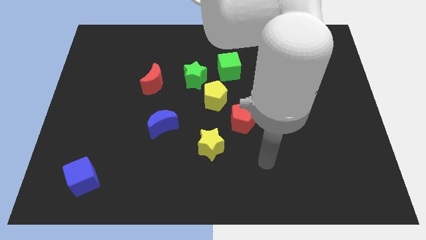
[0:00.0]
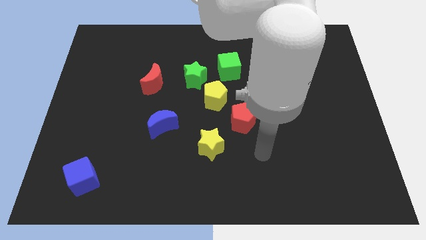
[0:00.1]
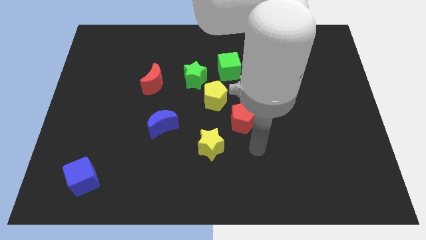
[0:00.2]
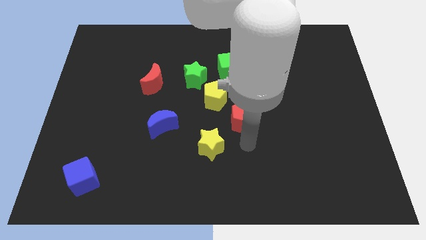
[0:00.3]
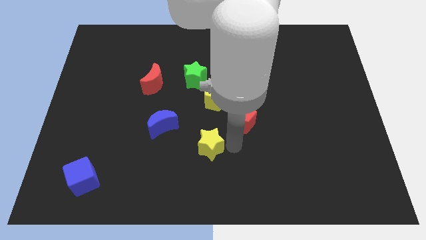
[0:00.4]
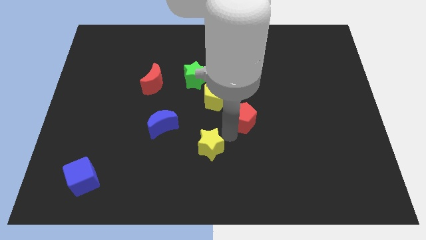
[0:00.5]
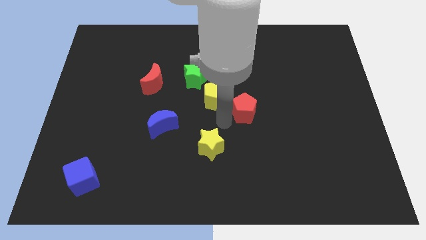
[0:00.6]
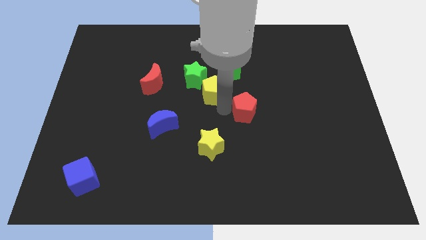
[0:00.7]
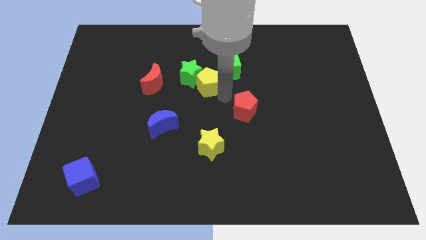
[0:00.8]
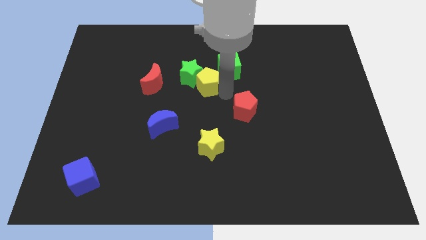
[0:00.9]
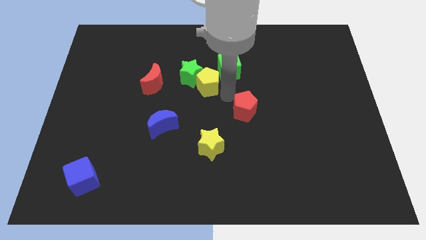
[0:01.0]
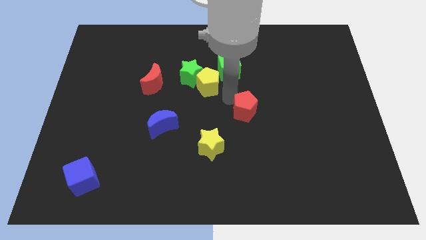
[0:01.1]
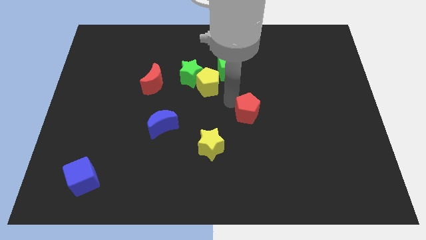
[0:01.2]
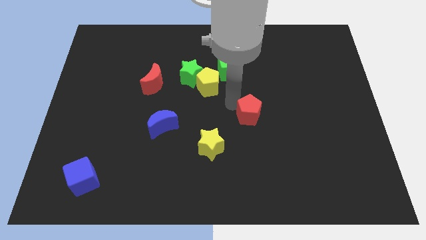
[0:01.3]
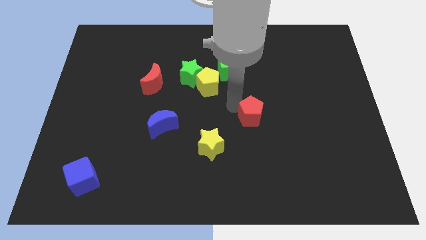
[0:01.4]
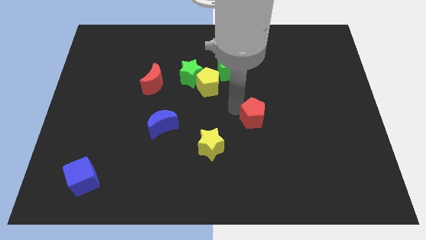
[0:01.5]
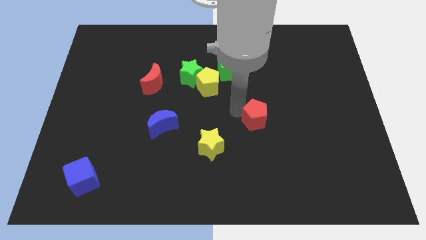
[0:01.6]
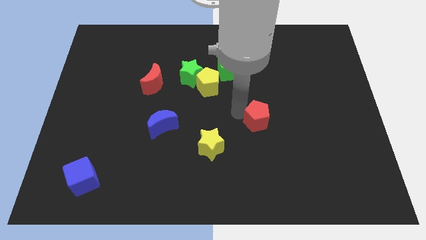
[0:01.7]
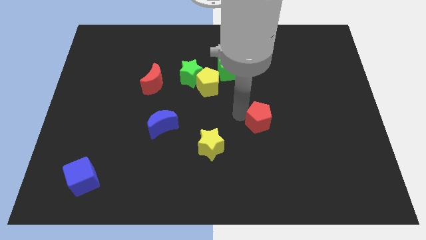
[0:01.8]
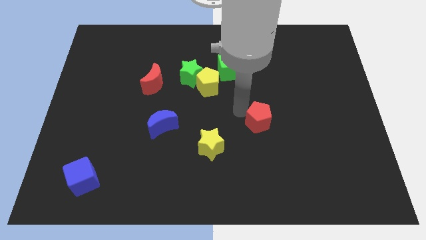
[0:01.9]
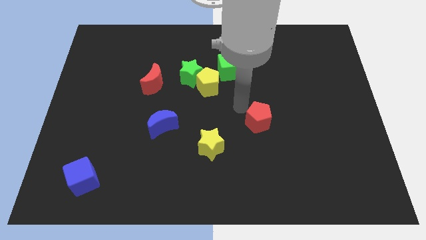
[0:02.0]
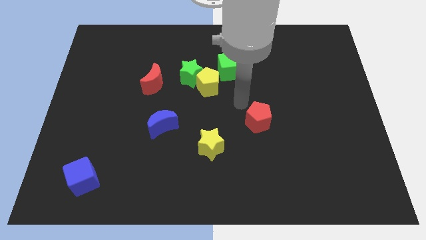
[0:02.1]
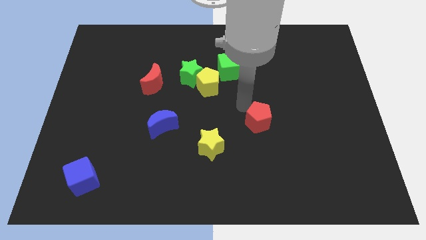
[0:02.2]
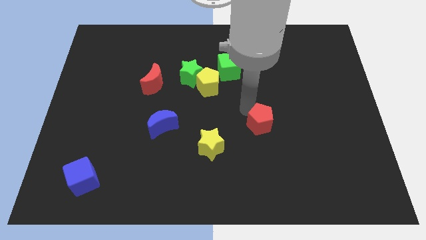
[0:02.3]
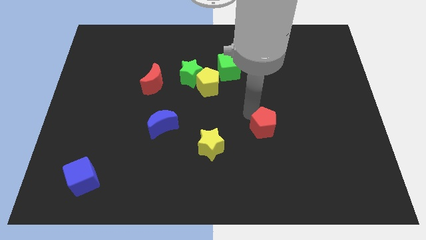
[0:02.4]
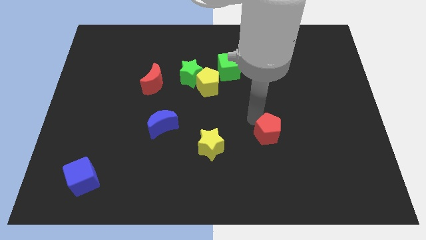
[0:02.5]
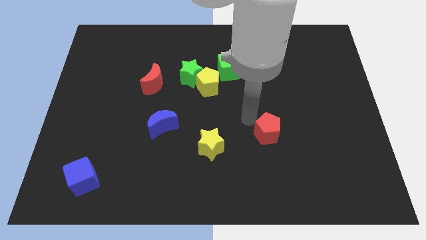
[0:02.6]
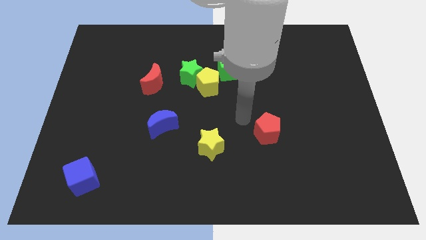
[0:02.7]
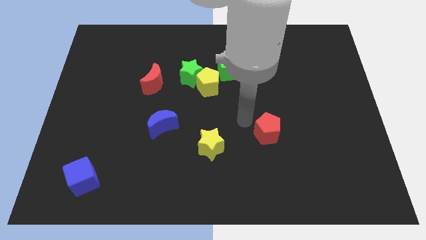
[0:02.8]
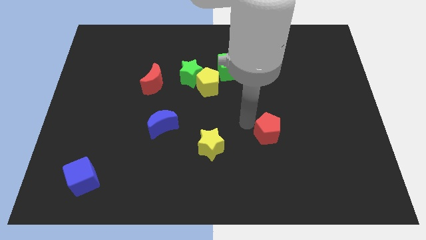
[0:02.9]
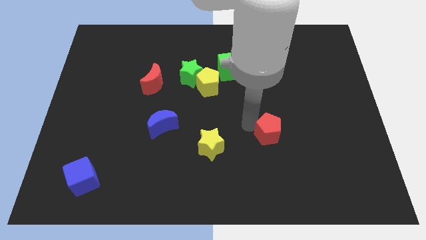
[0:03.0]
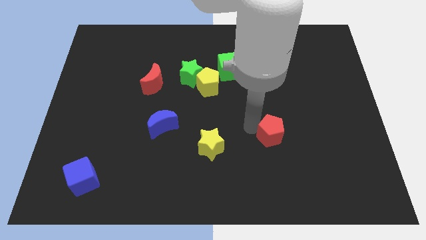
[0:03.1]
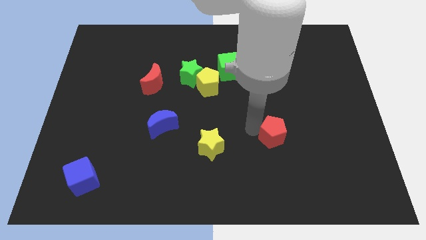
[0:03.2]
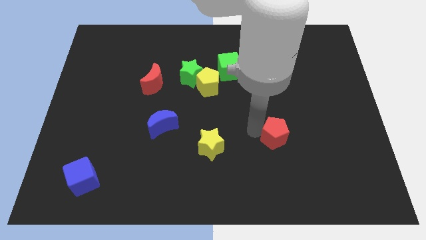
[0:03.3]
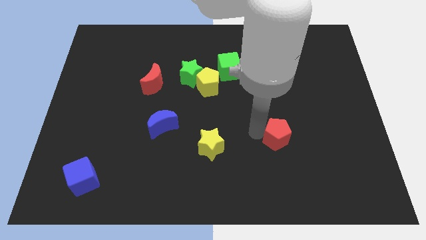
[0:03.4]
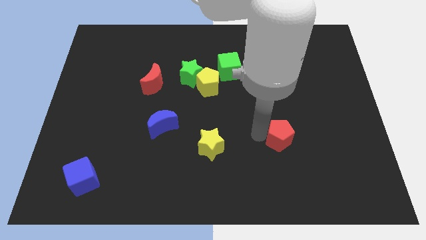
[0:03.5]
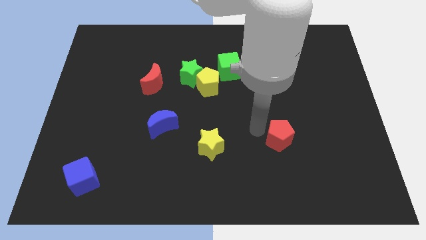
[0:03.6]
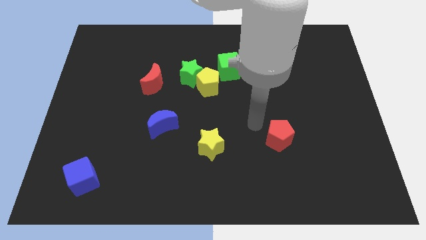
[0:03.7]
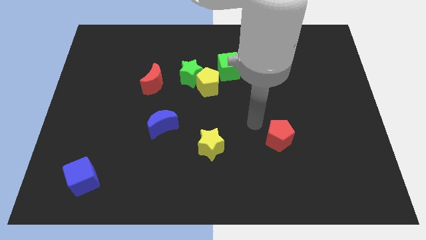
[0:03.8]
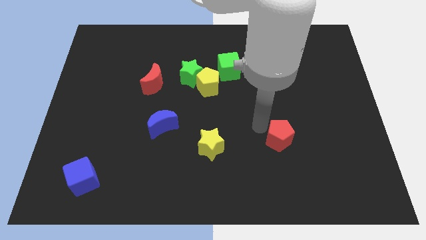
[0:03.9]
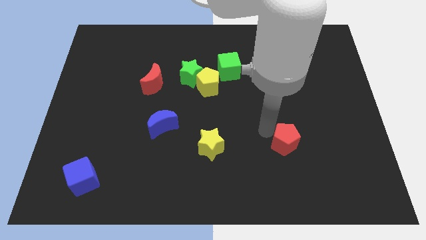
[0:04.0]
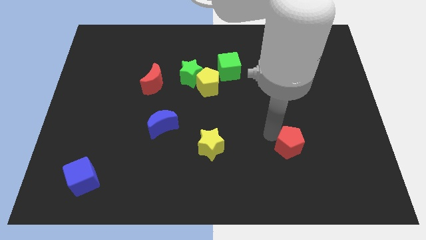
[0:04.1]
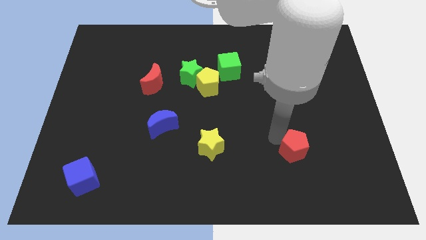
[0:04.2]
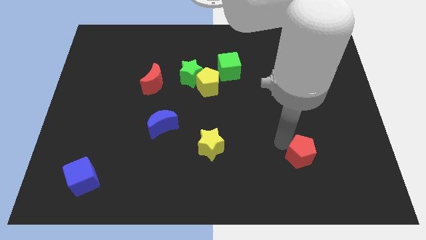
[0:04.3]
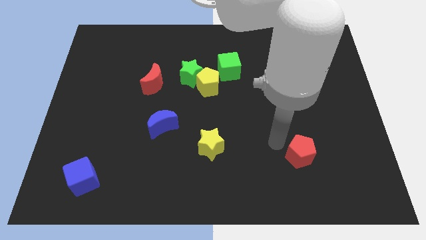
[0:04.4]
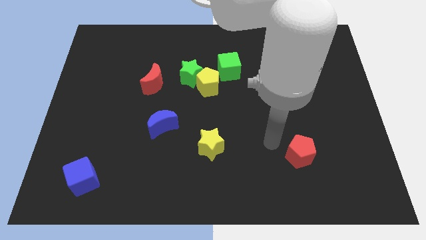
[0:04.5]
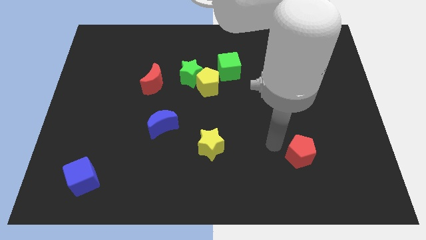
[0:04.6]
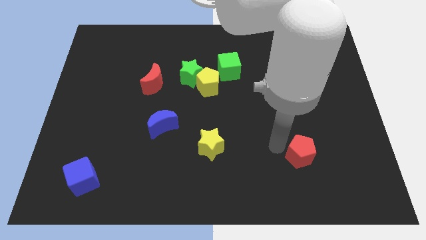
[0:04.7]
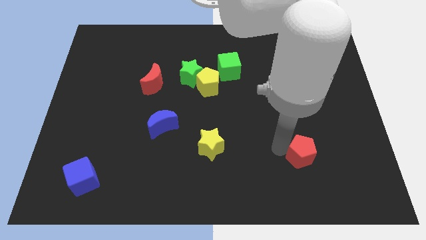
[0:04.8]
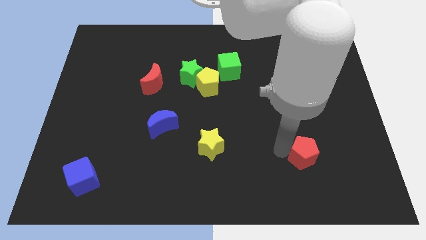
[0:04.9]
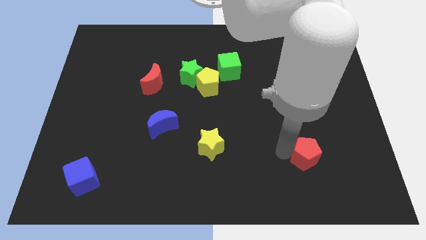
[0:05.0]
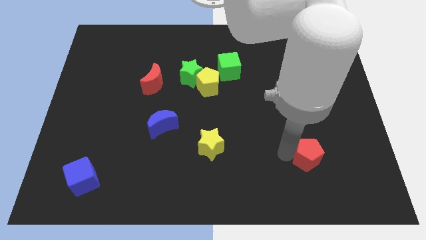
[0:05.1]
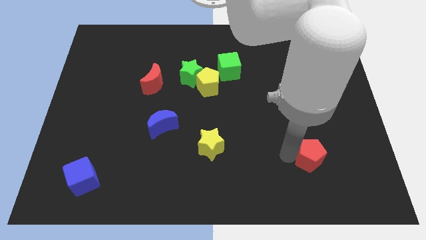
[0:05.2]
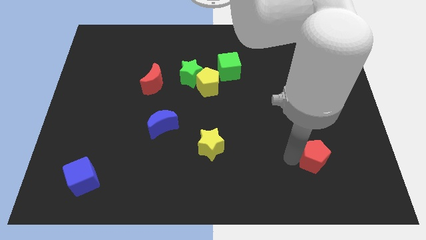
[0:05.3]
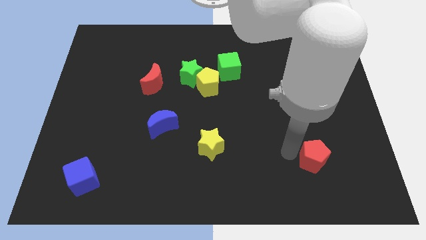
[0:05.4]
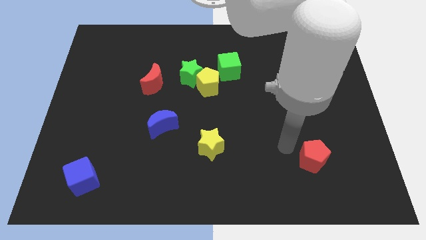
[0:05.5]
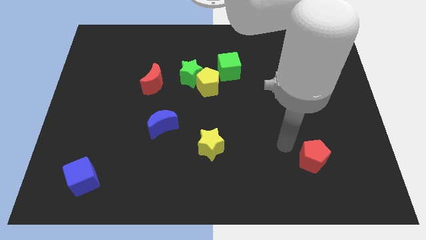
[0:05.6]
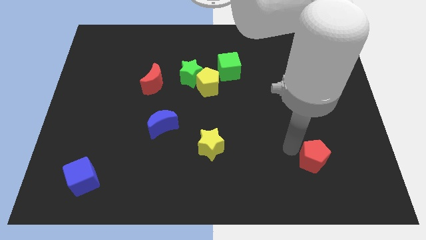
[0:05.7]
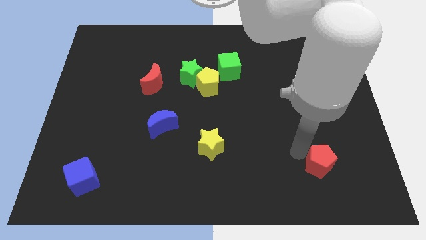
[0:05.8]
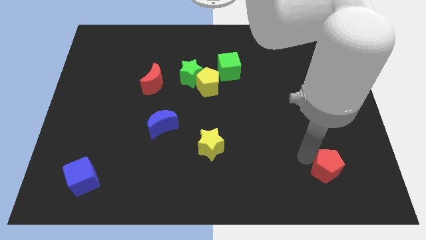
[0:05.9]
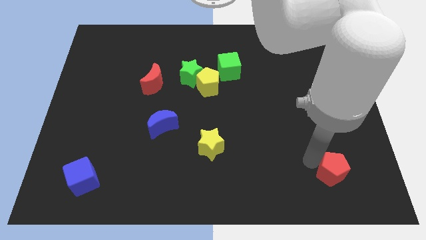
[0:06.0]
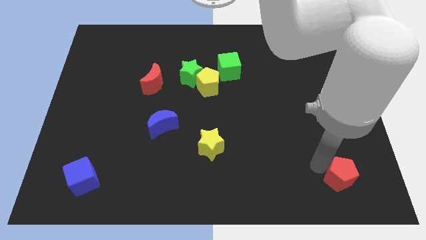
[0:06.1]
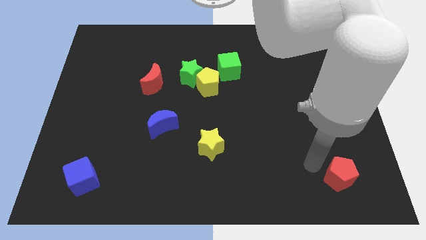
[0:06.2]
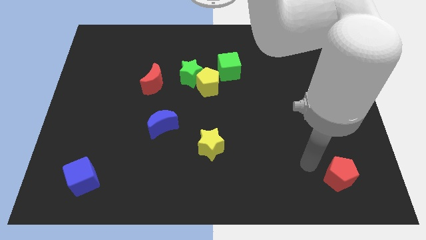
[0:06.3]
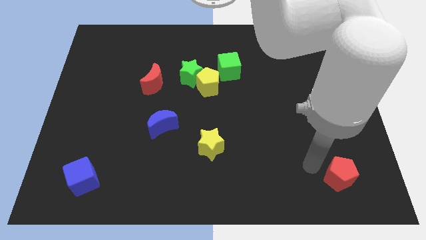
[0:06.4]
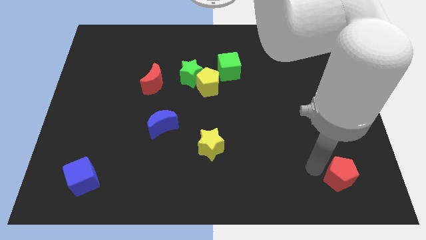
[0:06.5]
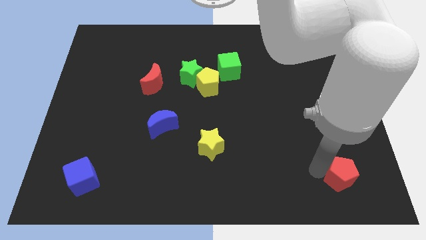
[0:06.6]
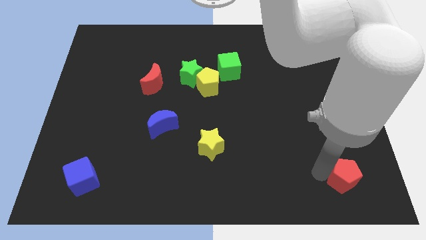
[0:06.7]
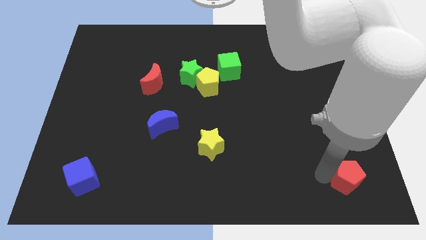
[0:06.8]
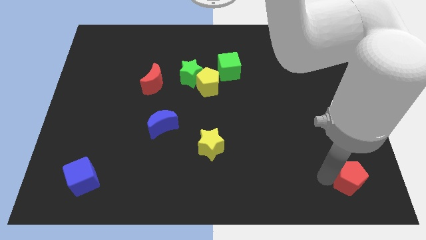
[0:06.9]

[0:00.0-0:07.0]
move the red pentagon to the bottom right corner
